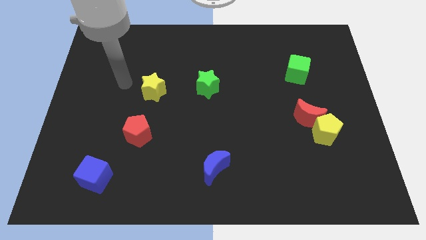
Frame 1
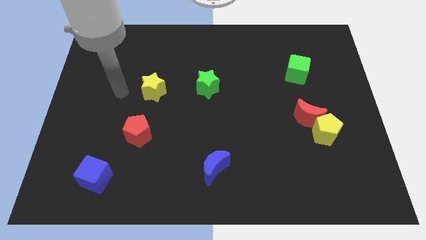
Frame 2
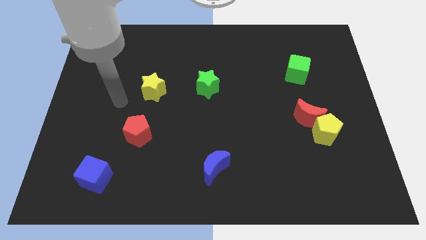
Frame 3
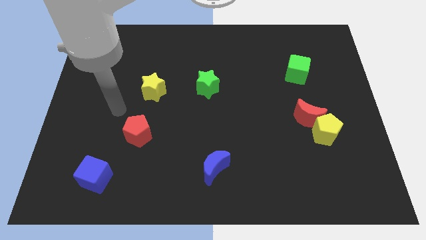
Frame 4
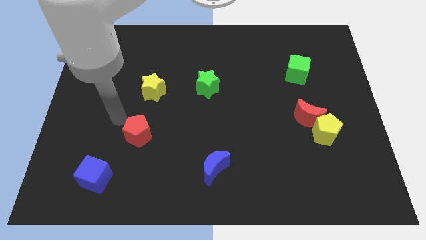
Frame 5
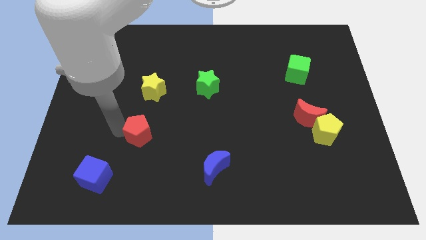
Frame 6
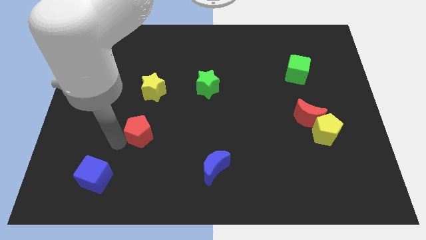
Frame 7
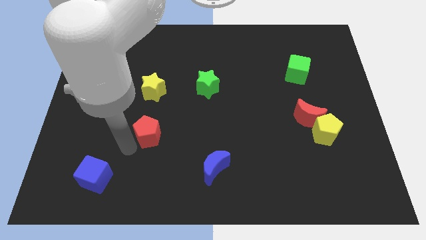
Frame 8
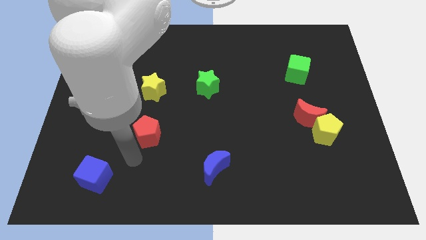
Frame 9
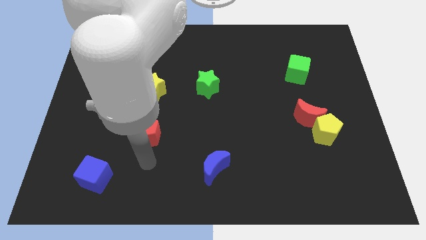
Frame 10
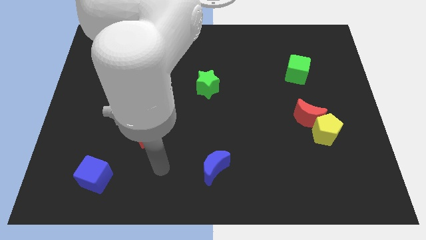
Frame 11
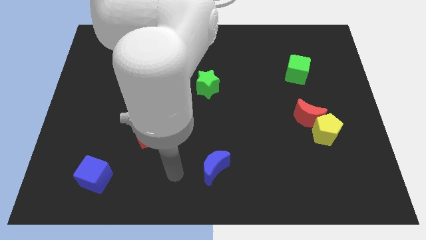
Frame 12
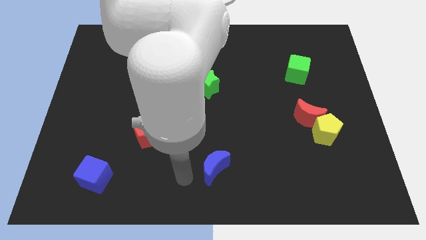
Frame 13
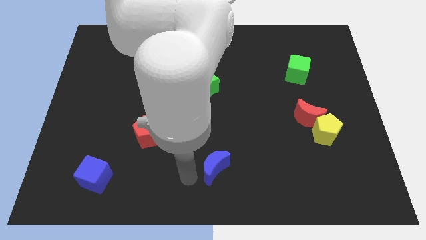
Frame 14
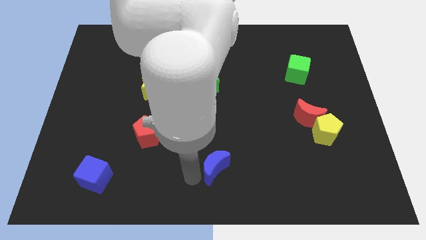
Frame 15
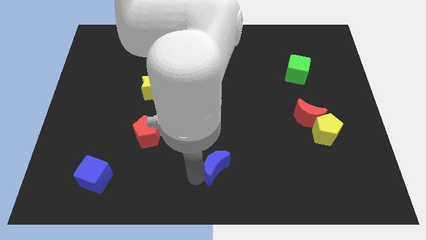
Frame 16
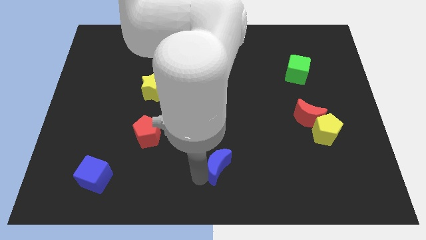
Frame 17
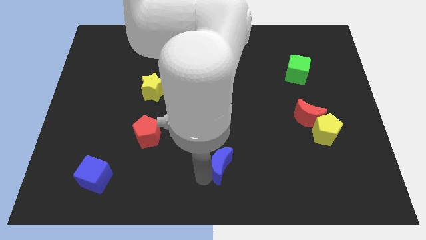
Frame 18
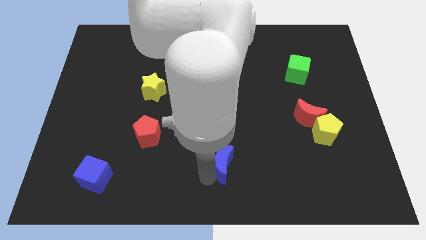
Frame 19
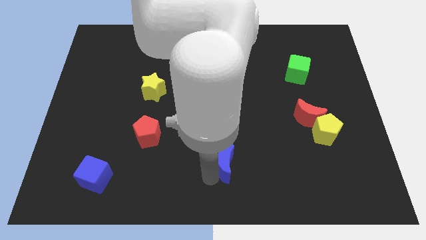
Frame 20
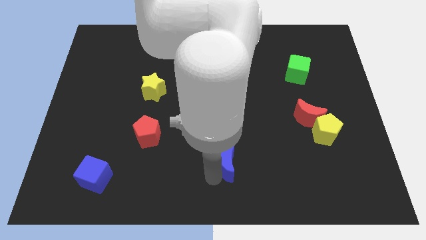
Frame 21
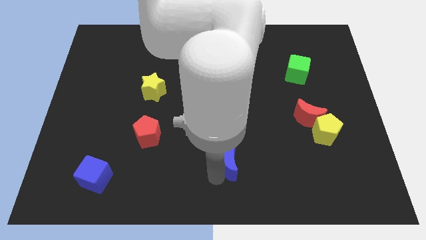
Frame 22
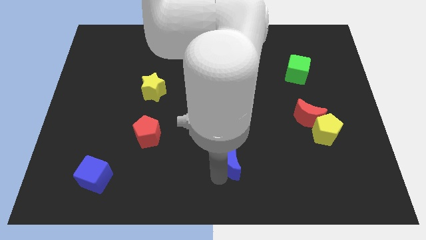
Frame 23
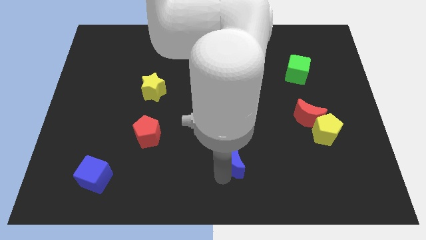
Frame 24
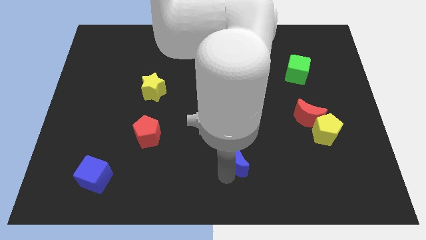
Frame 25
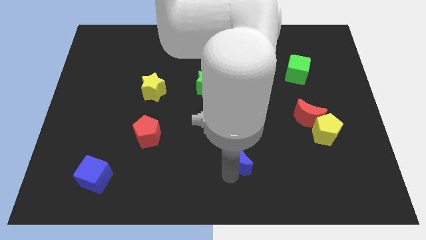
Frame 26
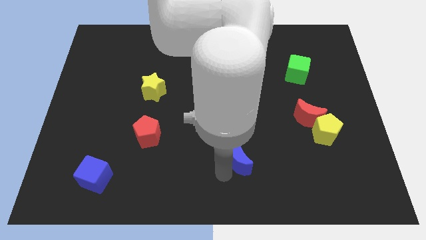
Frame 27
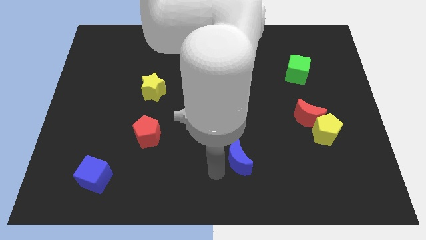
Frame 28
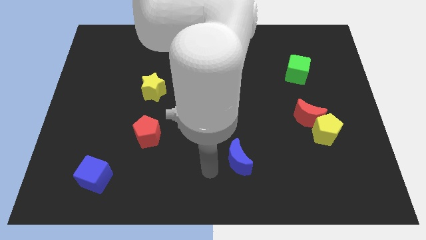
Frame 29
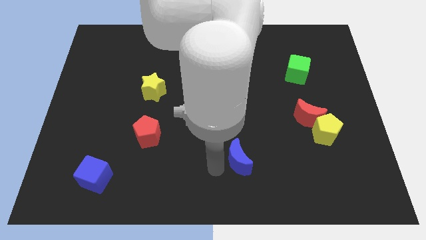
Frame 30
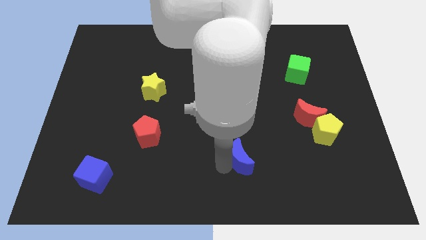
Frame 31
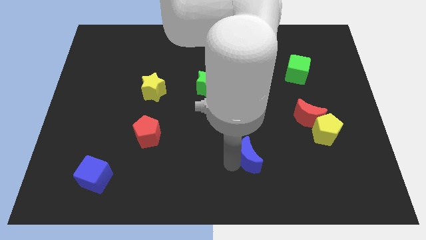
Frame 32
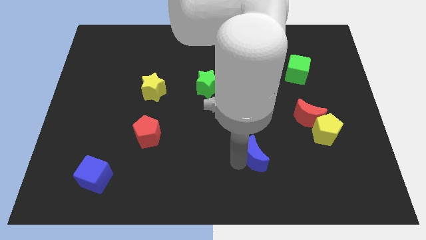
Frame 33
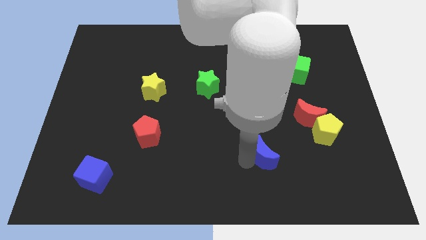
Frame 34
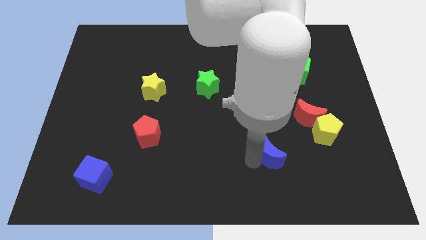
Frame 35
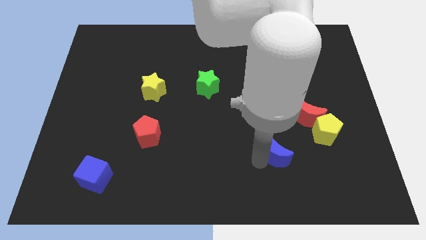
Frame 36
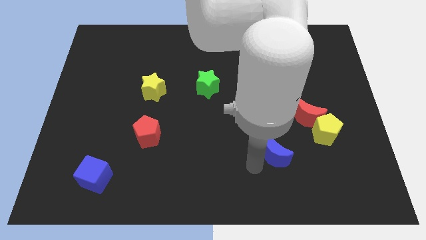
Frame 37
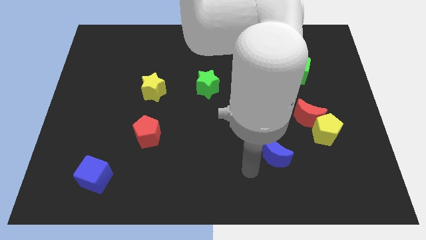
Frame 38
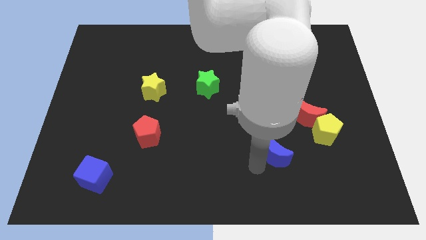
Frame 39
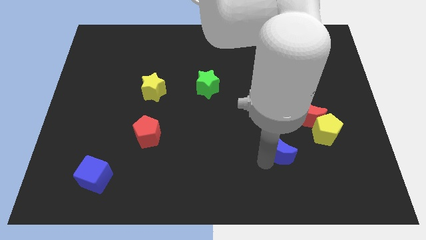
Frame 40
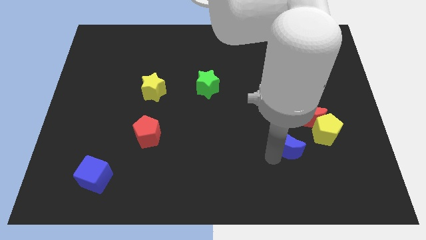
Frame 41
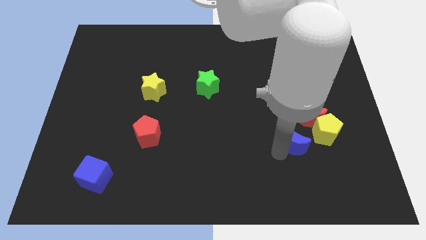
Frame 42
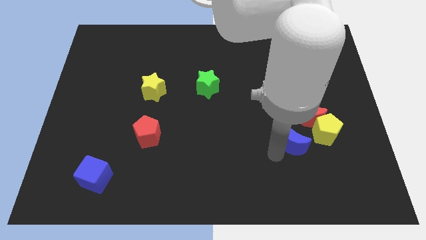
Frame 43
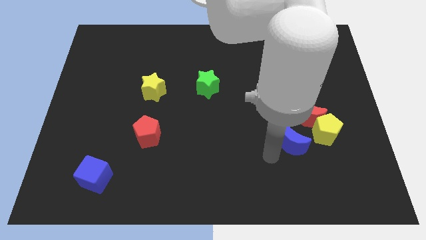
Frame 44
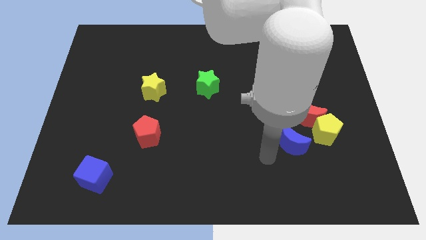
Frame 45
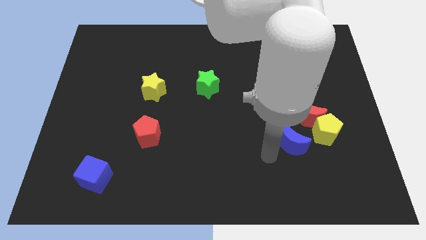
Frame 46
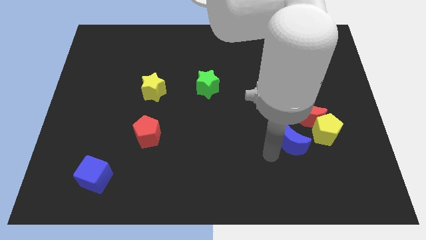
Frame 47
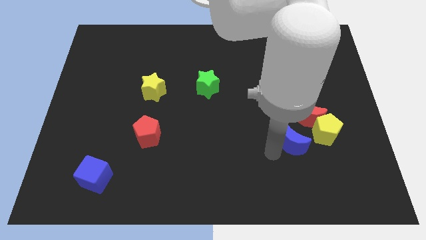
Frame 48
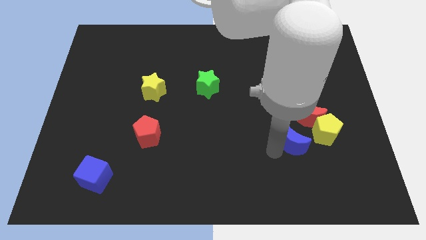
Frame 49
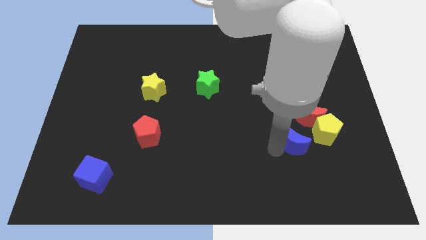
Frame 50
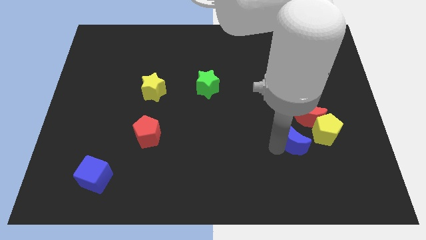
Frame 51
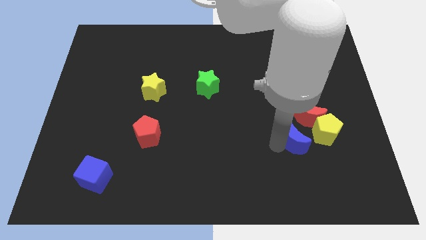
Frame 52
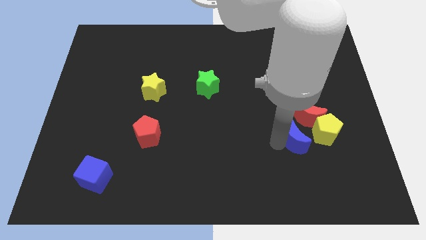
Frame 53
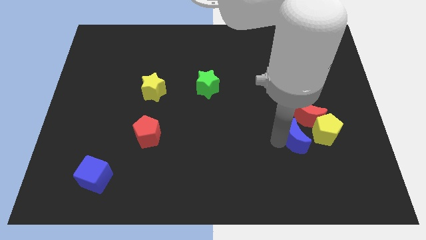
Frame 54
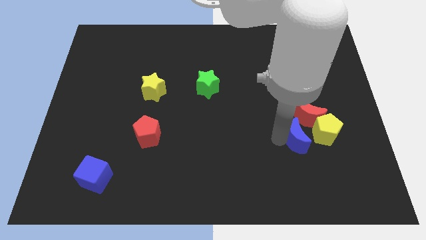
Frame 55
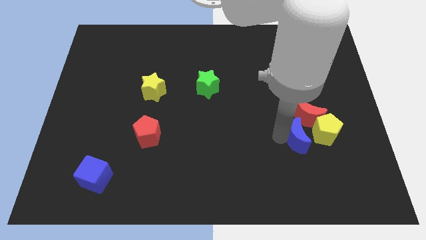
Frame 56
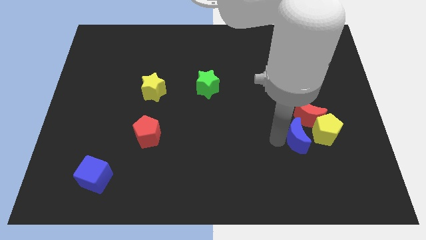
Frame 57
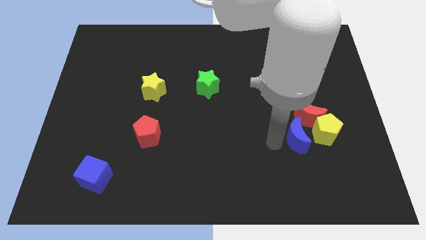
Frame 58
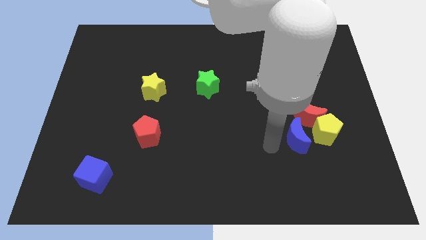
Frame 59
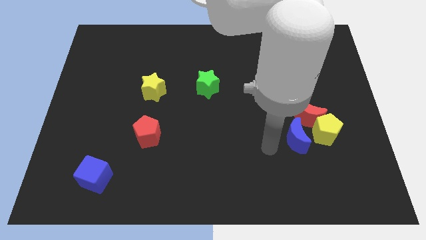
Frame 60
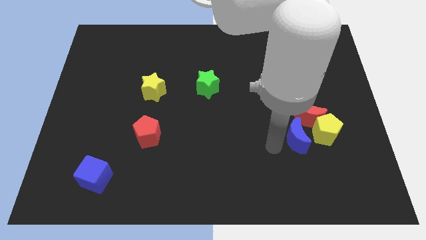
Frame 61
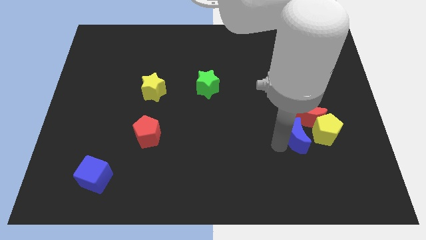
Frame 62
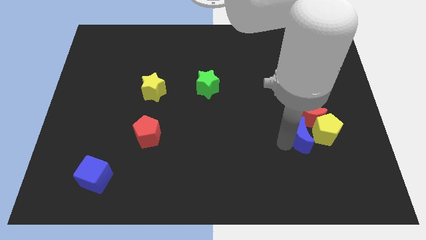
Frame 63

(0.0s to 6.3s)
push the blue moon close to the yellow pentagon

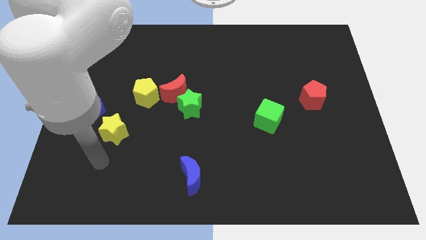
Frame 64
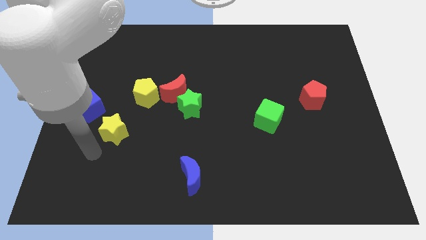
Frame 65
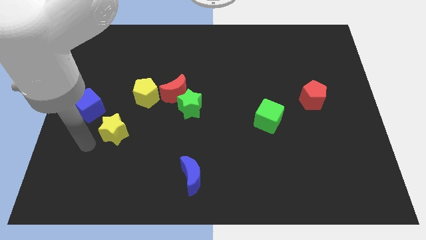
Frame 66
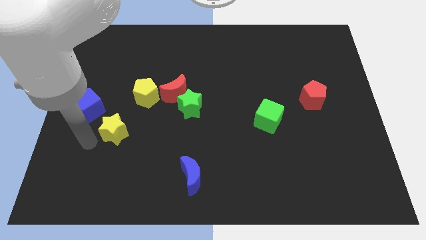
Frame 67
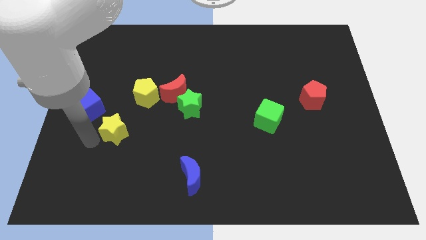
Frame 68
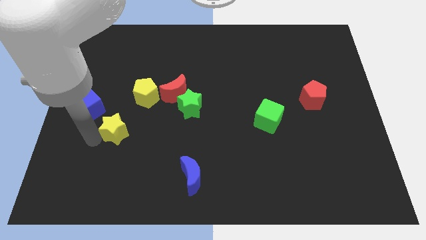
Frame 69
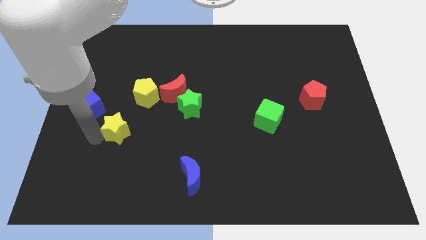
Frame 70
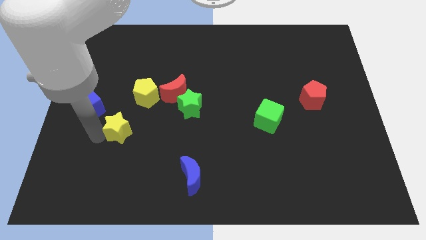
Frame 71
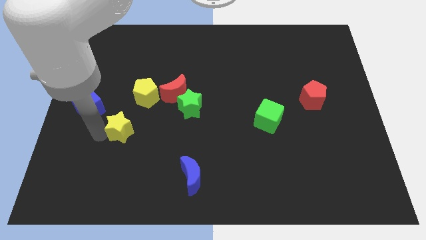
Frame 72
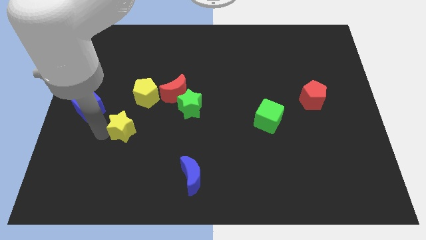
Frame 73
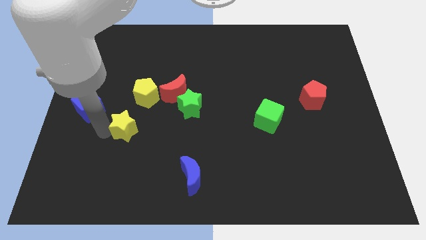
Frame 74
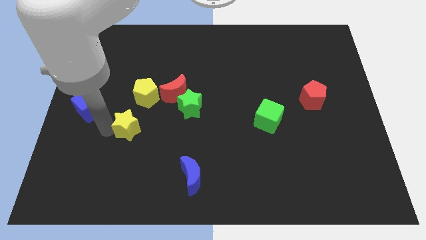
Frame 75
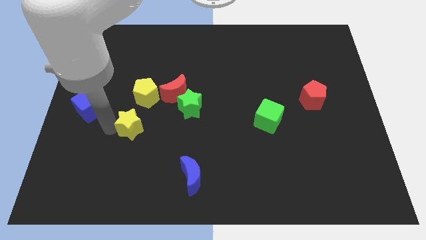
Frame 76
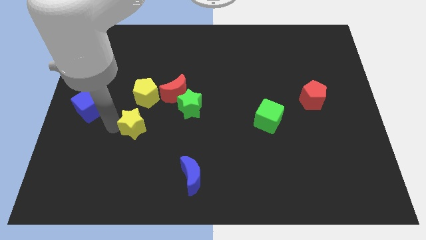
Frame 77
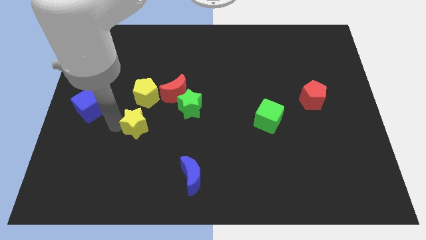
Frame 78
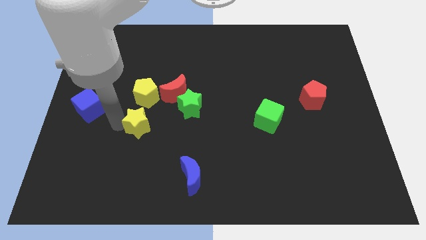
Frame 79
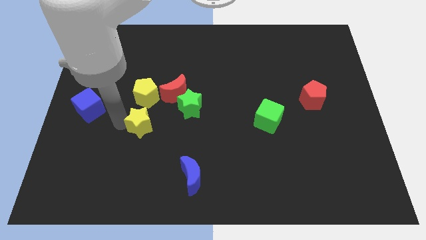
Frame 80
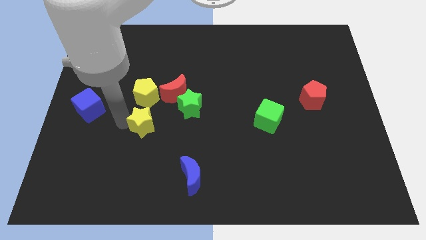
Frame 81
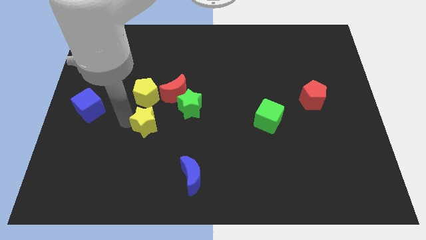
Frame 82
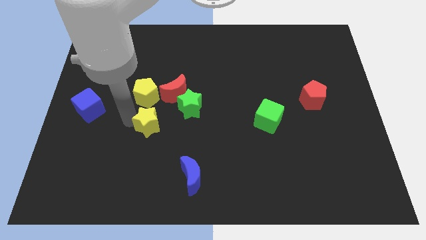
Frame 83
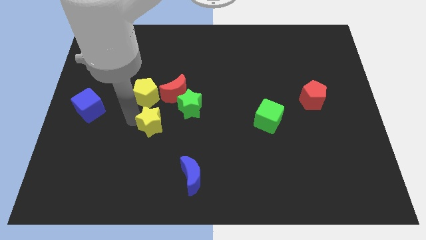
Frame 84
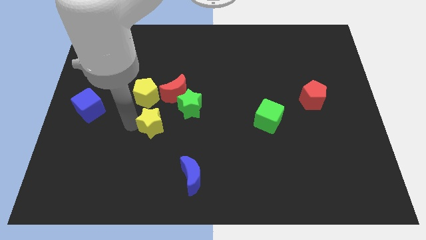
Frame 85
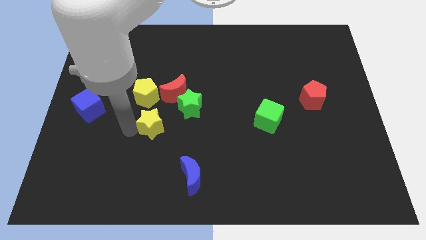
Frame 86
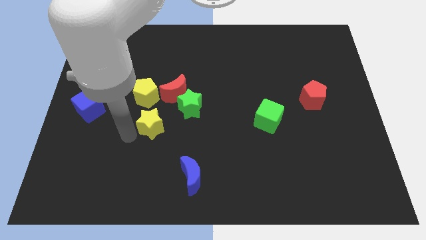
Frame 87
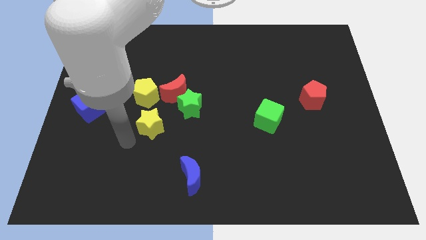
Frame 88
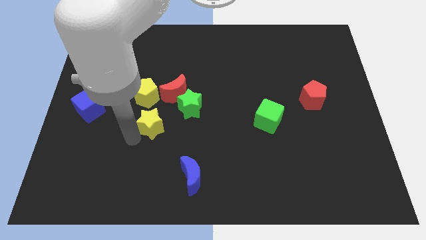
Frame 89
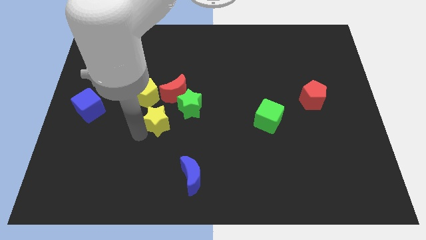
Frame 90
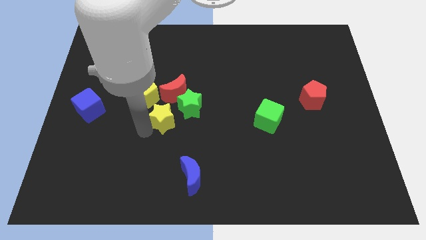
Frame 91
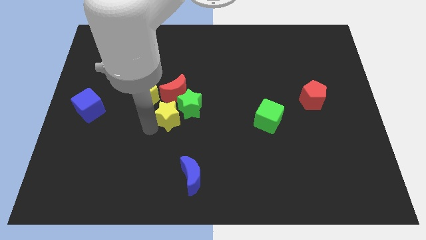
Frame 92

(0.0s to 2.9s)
slide the yellow star to the green star
